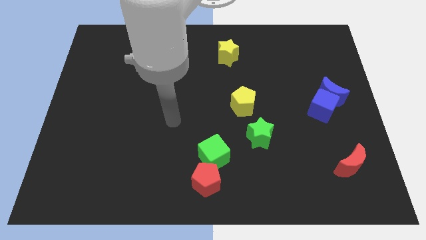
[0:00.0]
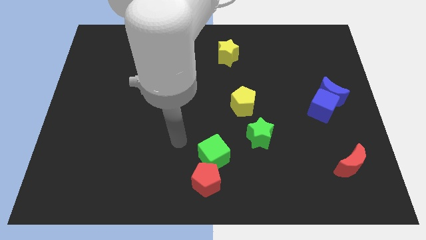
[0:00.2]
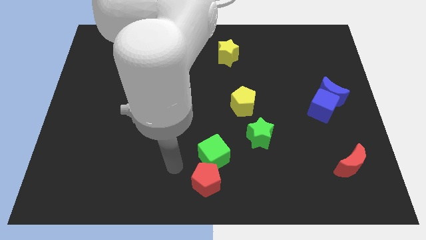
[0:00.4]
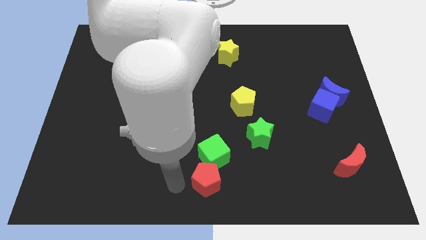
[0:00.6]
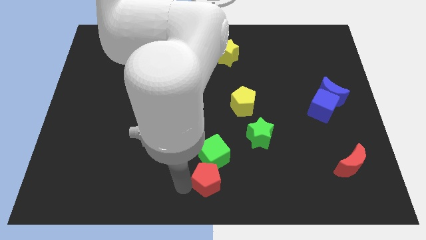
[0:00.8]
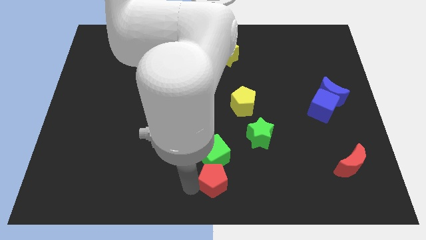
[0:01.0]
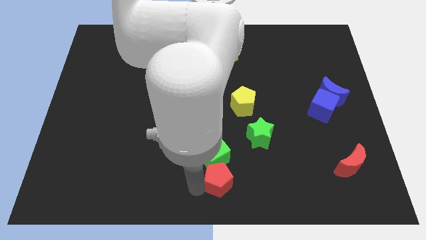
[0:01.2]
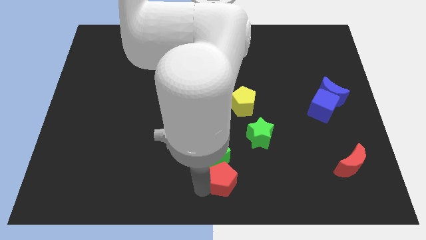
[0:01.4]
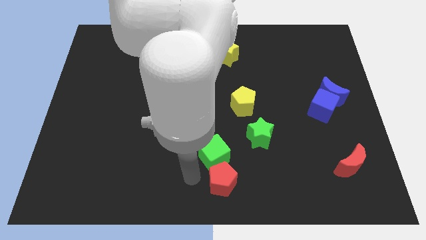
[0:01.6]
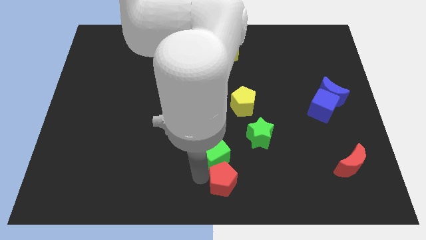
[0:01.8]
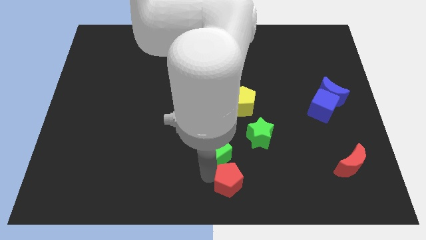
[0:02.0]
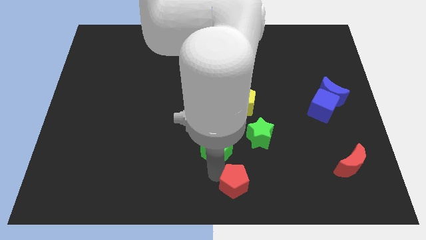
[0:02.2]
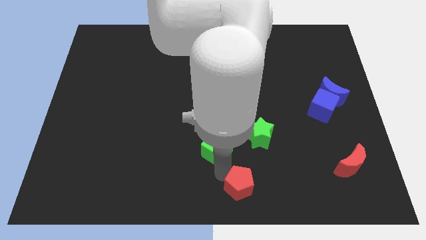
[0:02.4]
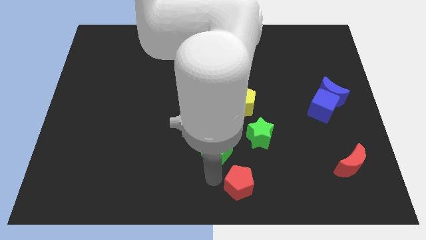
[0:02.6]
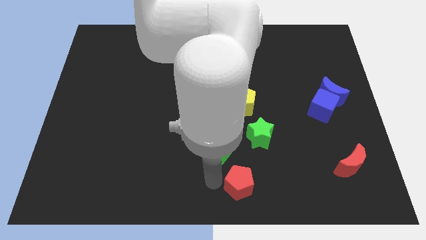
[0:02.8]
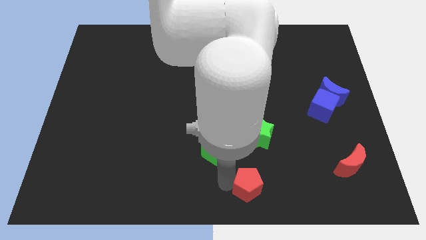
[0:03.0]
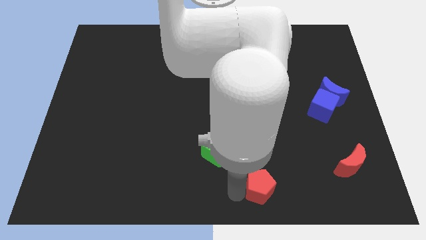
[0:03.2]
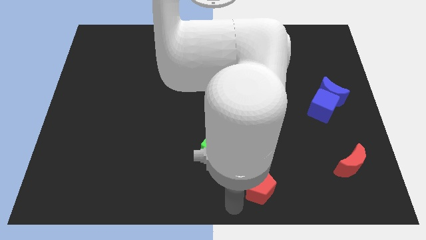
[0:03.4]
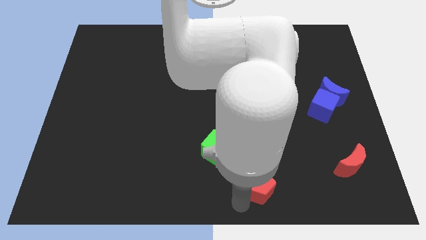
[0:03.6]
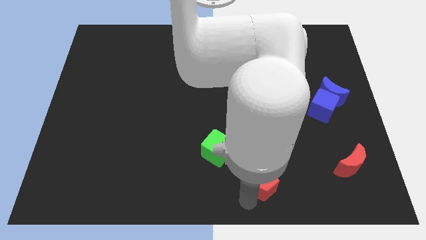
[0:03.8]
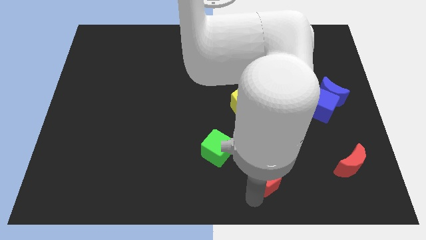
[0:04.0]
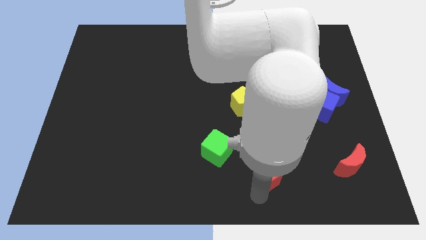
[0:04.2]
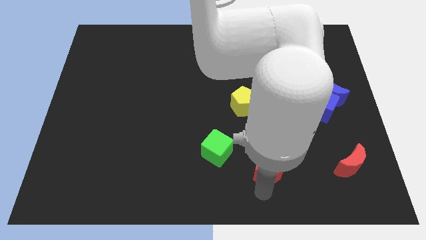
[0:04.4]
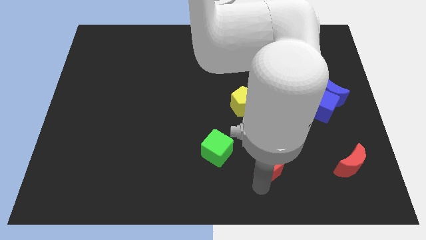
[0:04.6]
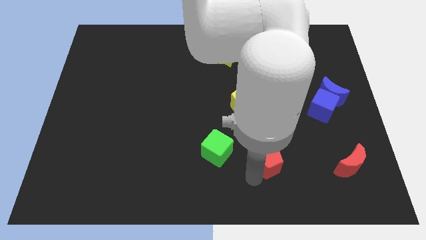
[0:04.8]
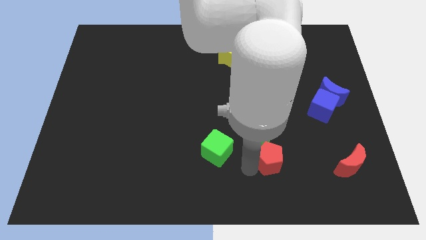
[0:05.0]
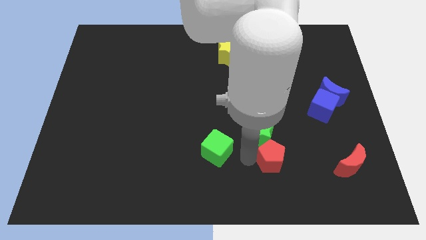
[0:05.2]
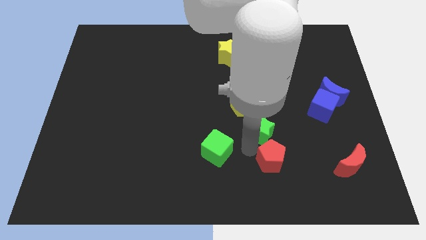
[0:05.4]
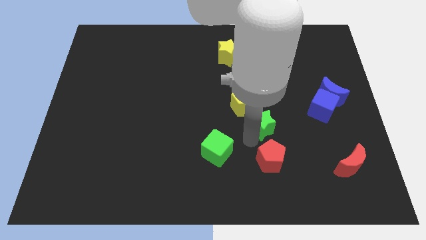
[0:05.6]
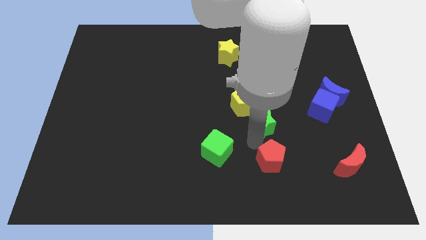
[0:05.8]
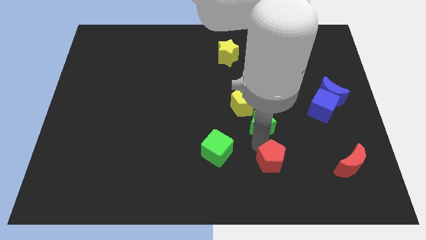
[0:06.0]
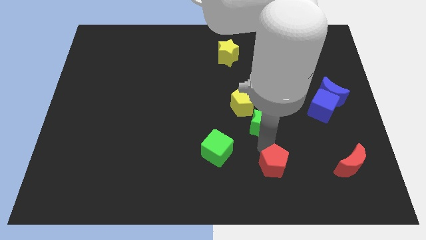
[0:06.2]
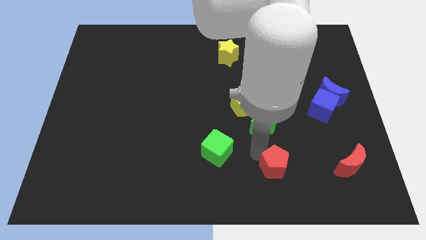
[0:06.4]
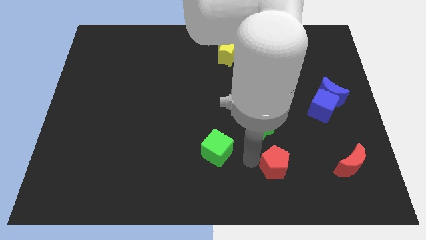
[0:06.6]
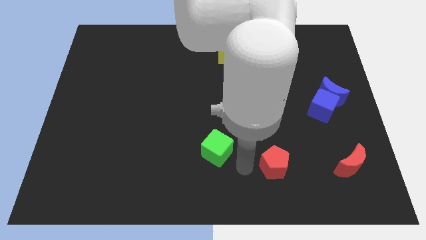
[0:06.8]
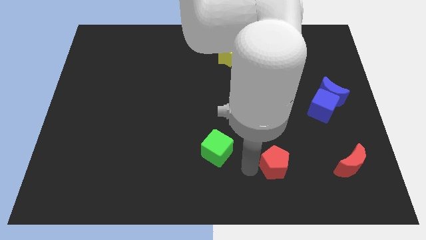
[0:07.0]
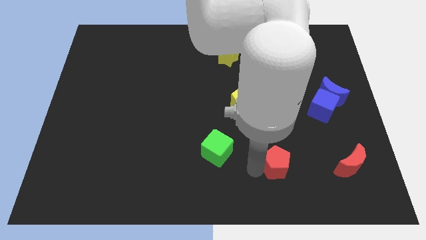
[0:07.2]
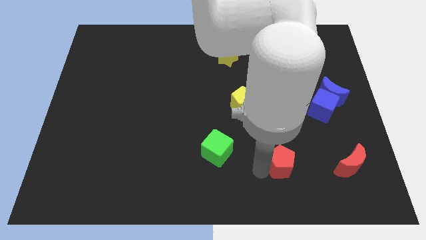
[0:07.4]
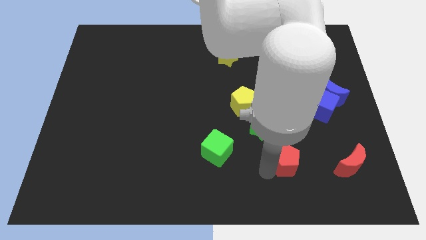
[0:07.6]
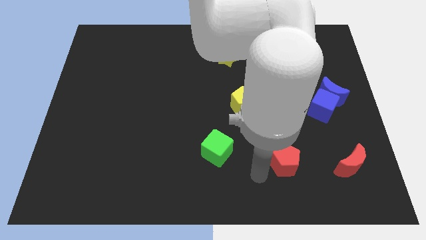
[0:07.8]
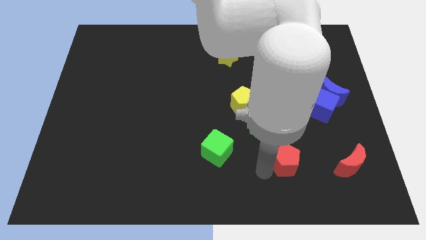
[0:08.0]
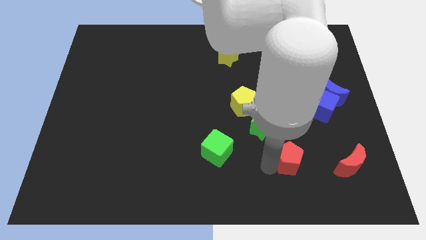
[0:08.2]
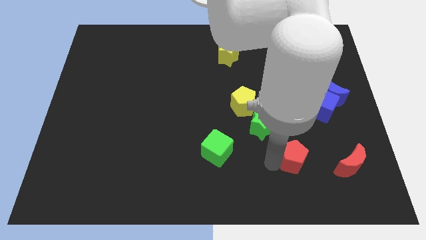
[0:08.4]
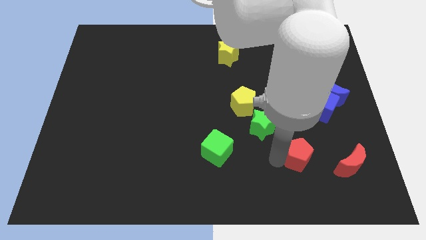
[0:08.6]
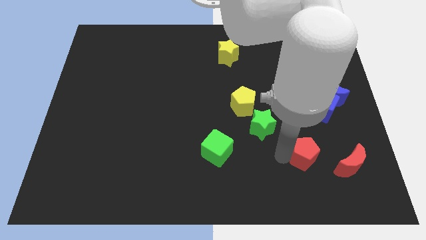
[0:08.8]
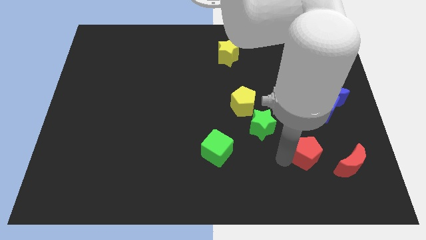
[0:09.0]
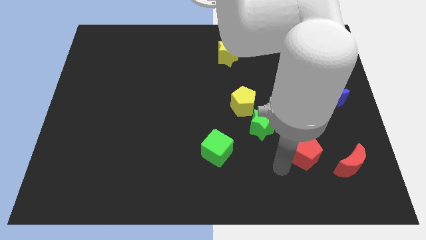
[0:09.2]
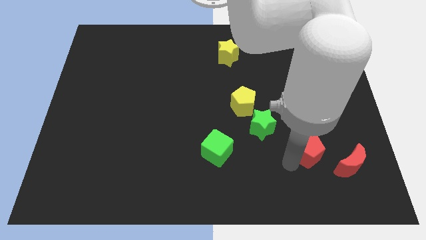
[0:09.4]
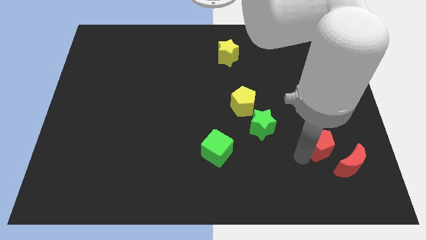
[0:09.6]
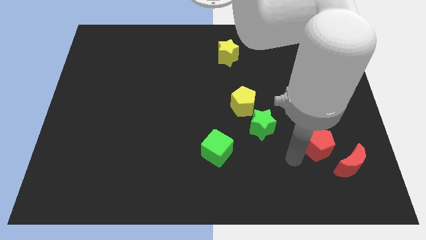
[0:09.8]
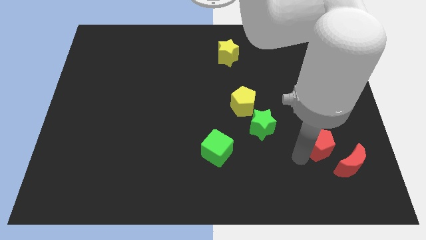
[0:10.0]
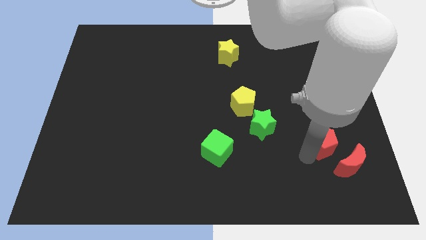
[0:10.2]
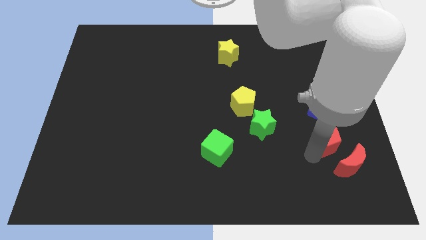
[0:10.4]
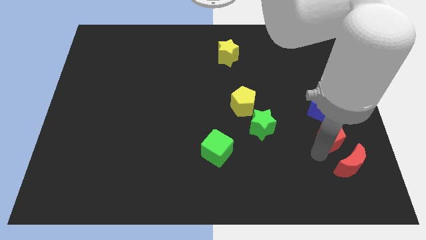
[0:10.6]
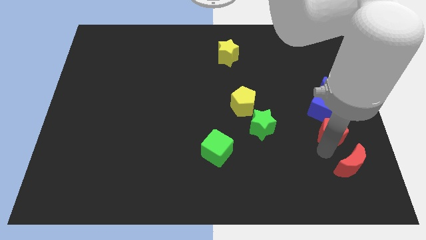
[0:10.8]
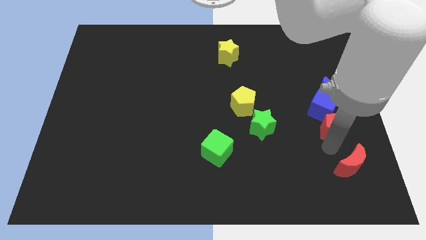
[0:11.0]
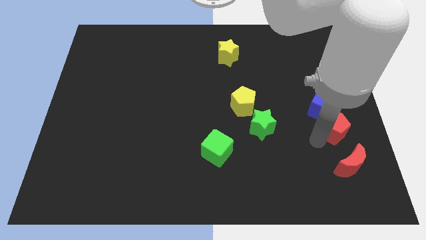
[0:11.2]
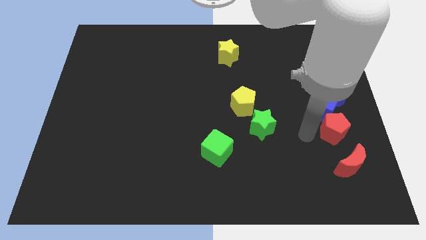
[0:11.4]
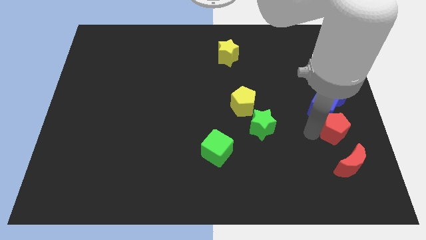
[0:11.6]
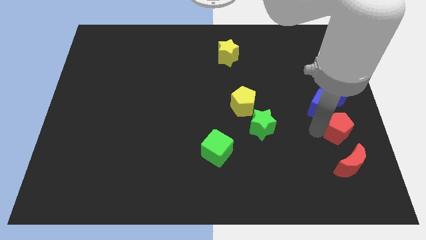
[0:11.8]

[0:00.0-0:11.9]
push the red pentagon to the right side of the board
